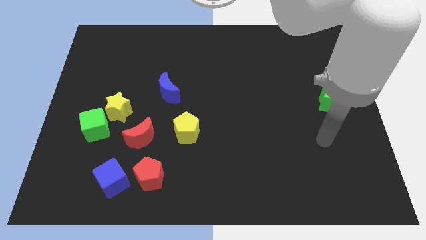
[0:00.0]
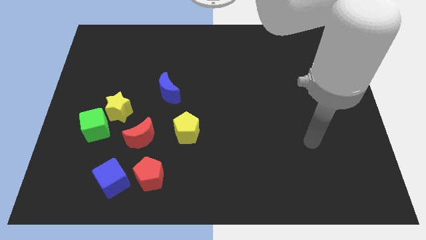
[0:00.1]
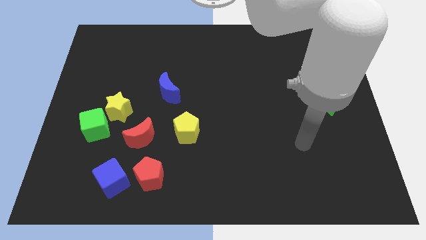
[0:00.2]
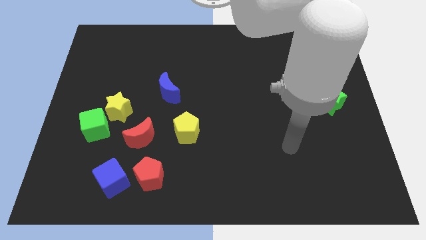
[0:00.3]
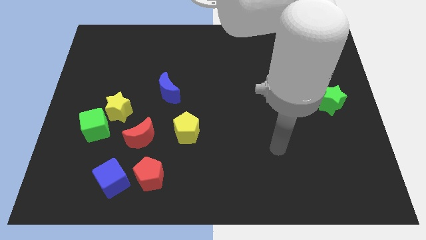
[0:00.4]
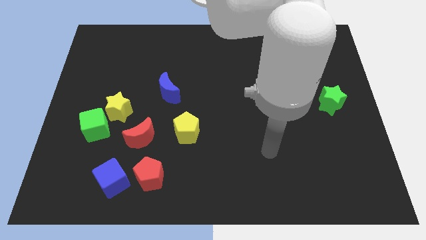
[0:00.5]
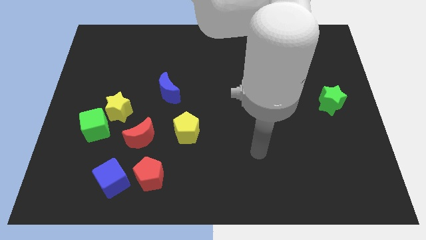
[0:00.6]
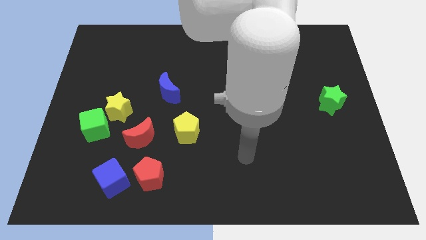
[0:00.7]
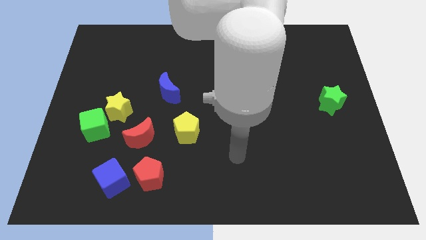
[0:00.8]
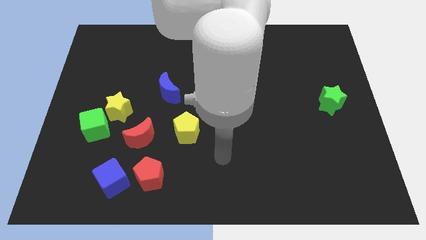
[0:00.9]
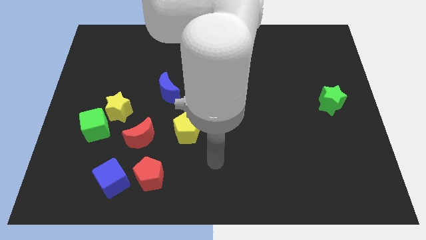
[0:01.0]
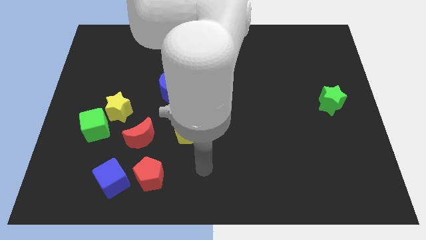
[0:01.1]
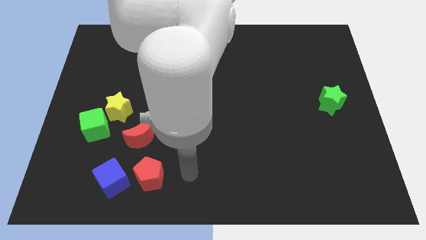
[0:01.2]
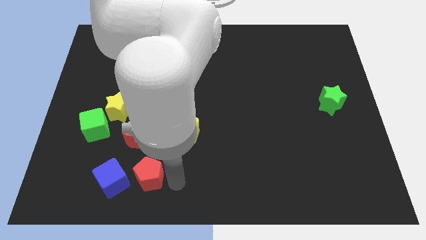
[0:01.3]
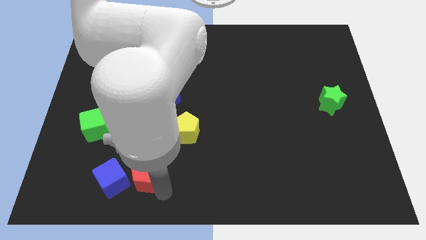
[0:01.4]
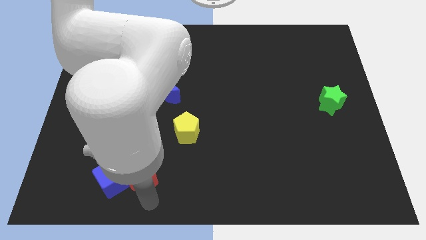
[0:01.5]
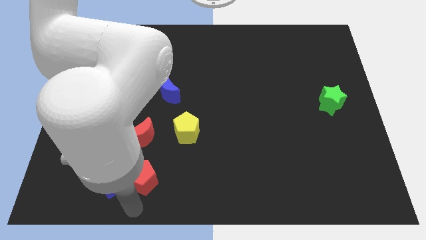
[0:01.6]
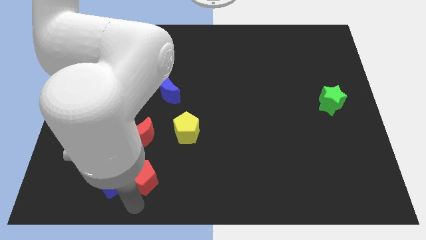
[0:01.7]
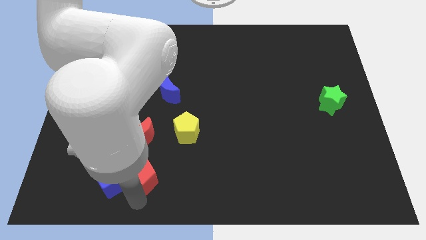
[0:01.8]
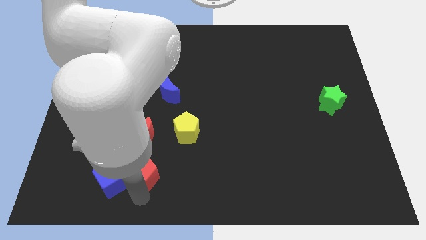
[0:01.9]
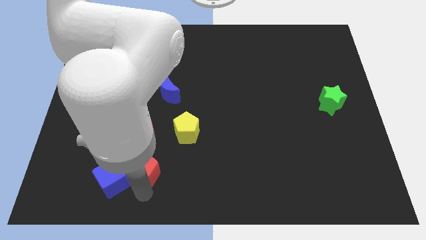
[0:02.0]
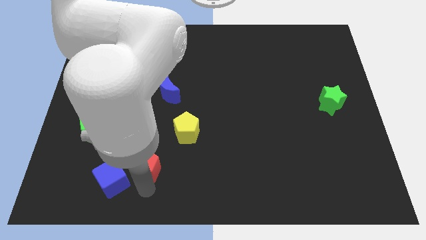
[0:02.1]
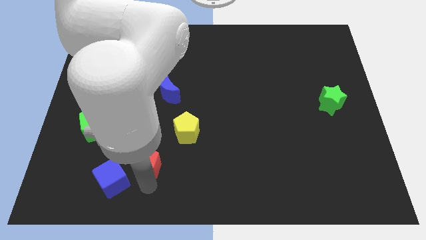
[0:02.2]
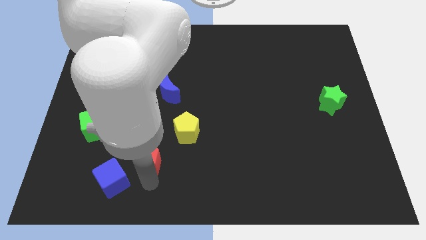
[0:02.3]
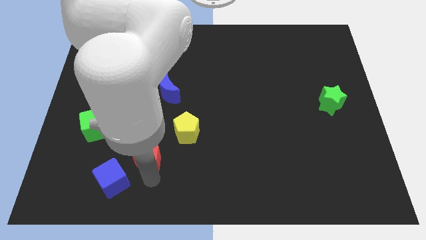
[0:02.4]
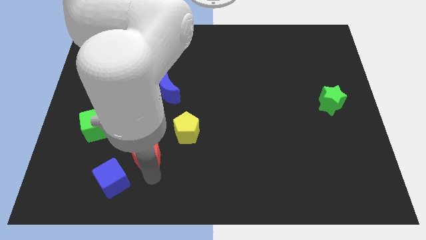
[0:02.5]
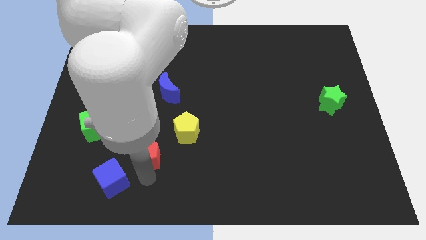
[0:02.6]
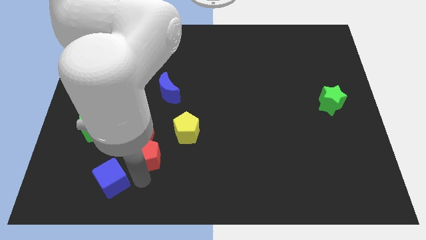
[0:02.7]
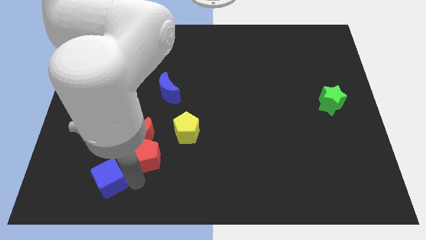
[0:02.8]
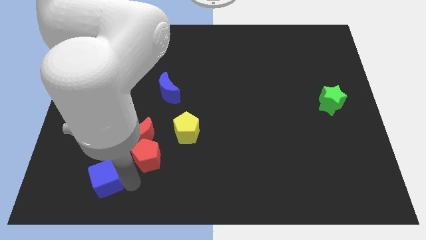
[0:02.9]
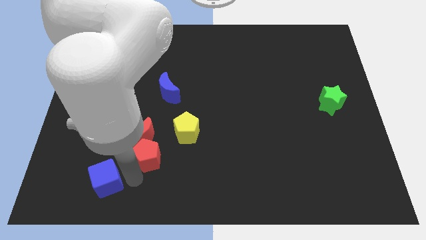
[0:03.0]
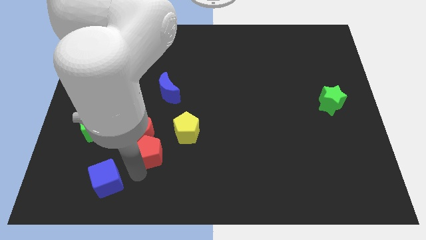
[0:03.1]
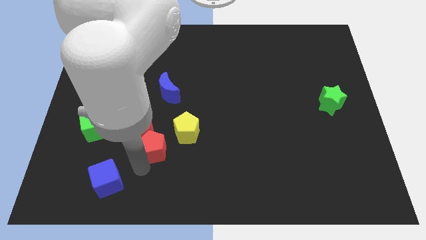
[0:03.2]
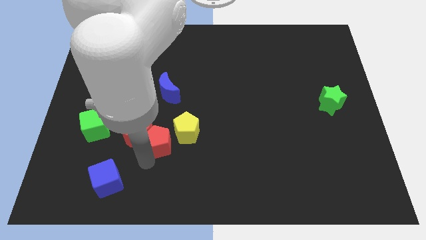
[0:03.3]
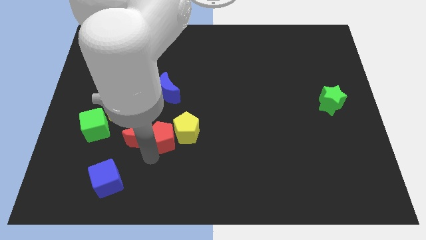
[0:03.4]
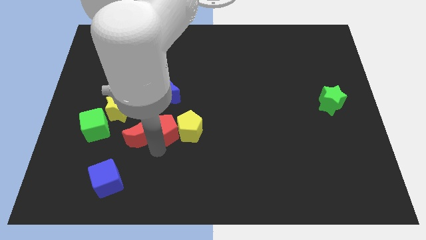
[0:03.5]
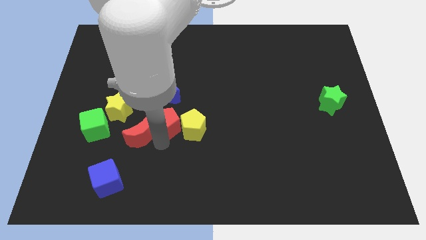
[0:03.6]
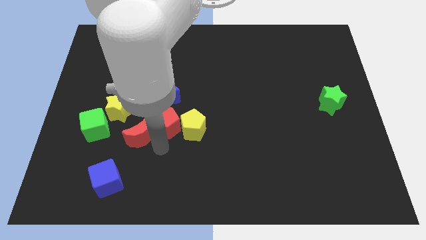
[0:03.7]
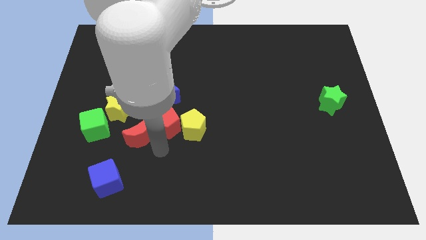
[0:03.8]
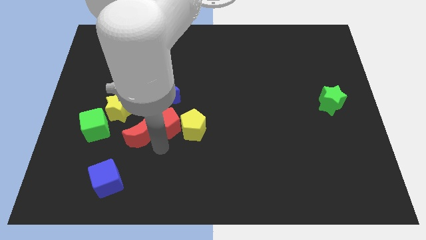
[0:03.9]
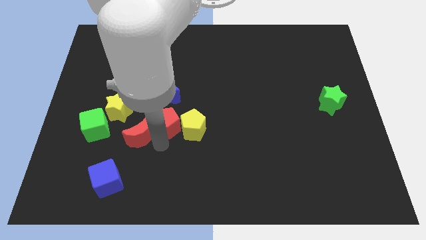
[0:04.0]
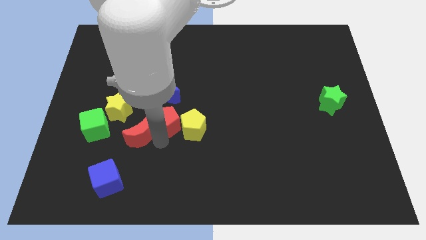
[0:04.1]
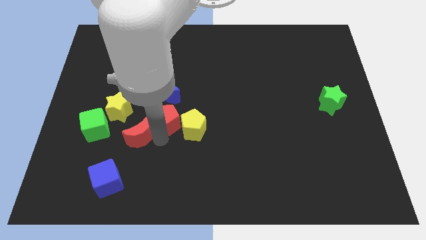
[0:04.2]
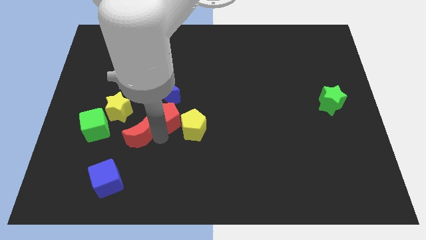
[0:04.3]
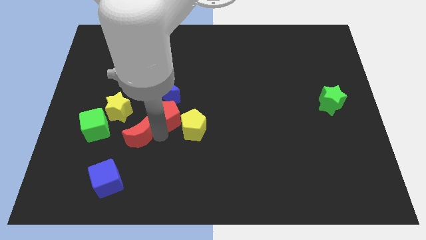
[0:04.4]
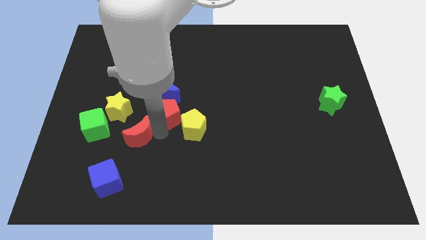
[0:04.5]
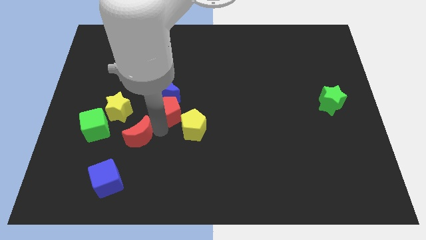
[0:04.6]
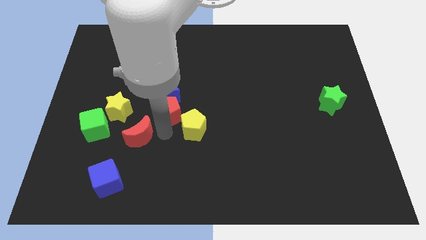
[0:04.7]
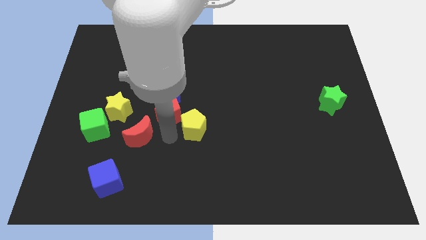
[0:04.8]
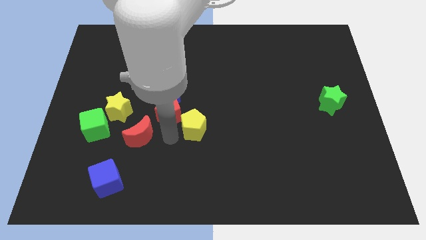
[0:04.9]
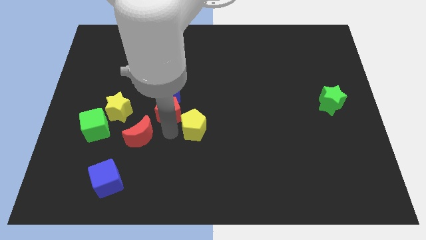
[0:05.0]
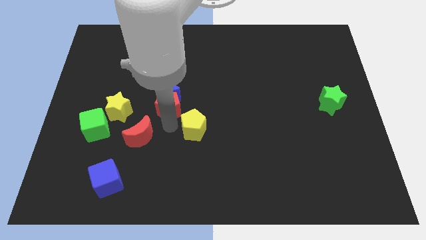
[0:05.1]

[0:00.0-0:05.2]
push the red pentagon close to the blue moon

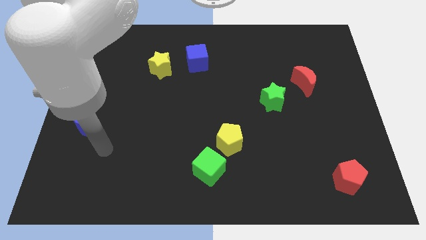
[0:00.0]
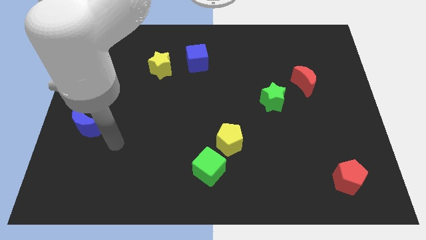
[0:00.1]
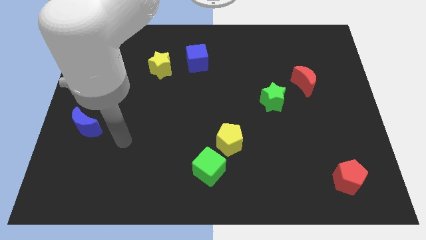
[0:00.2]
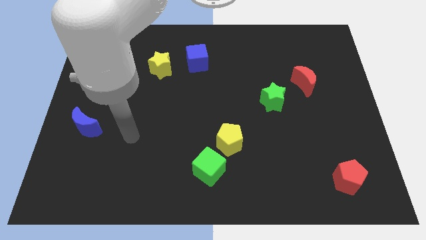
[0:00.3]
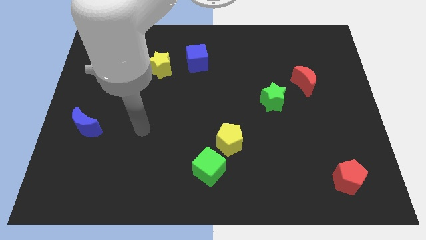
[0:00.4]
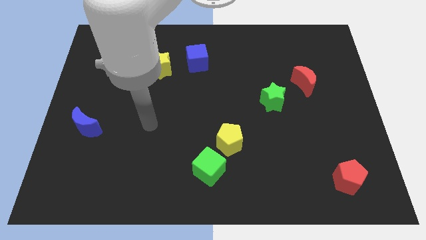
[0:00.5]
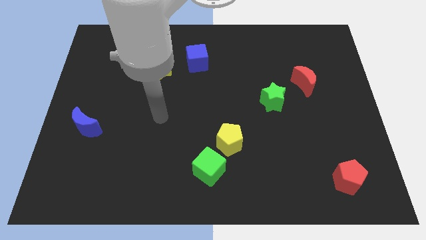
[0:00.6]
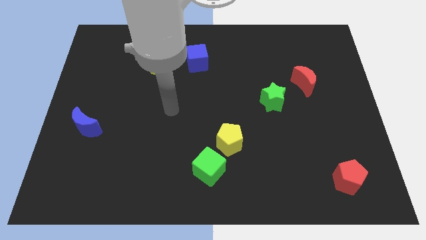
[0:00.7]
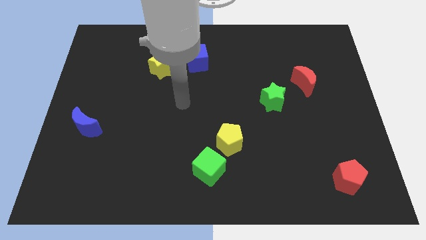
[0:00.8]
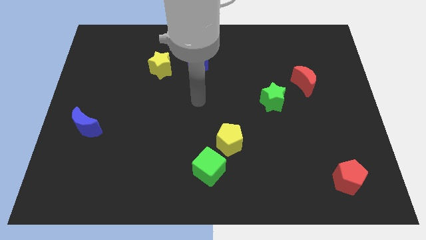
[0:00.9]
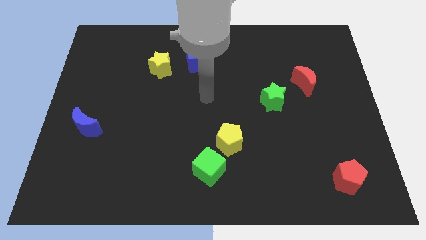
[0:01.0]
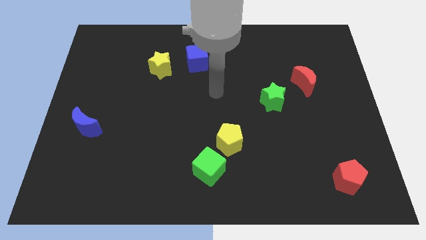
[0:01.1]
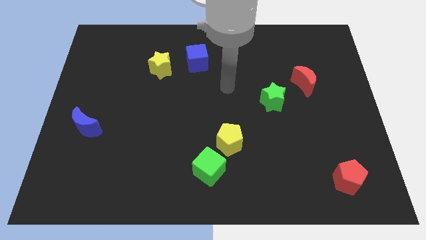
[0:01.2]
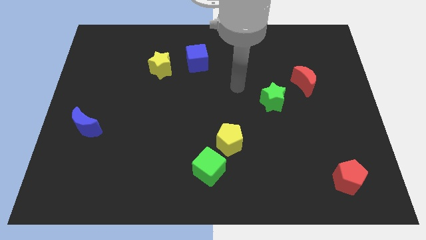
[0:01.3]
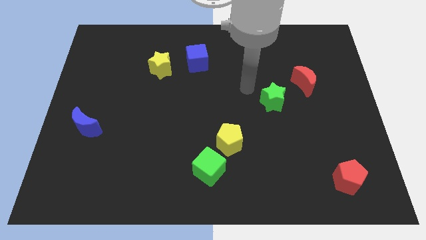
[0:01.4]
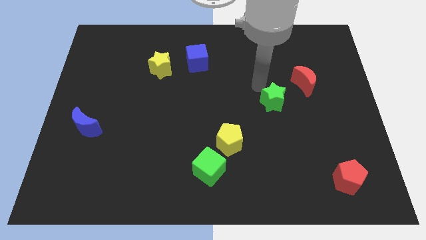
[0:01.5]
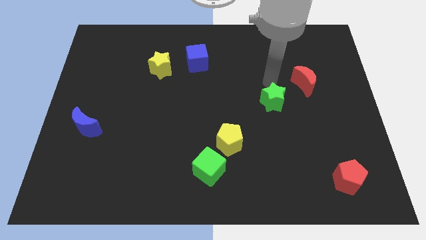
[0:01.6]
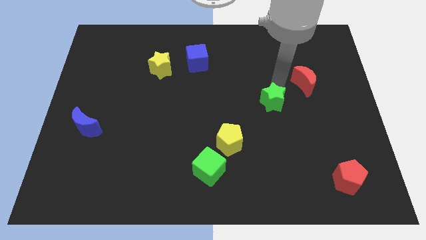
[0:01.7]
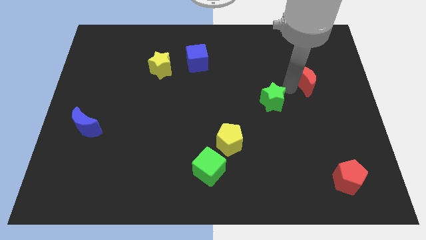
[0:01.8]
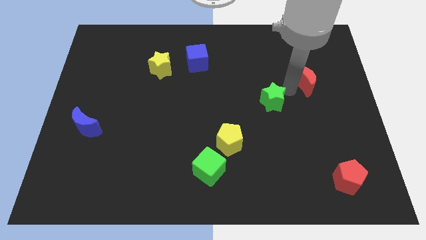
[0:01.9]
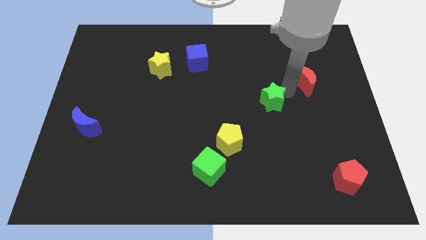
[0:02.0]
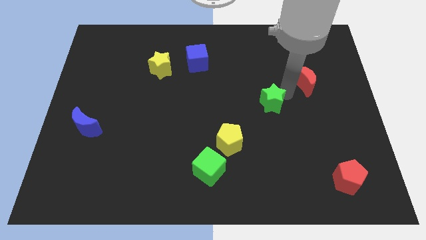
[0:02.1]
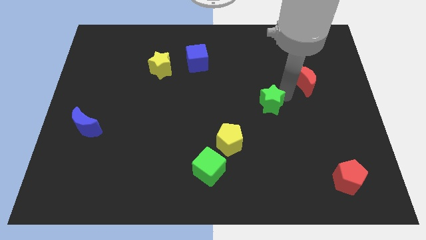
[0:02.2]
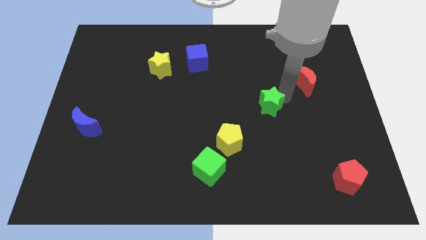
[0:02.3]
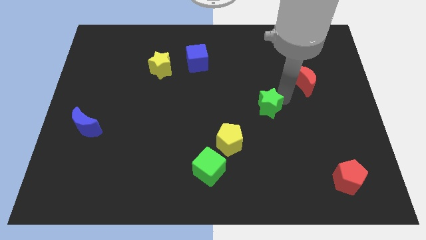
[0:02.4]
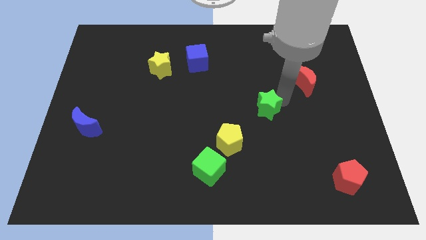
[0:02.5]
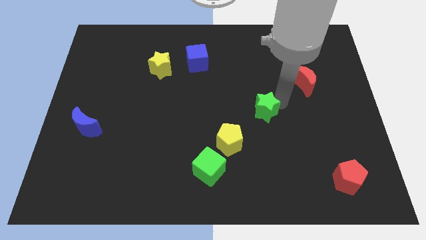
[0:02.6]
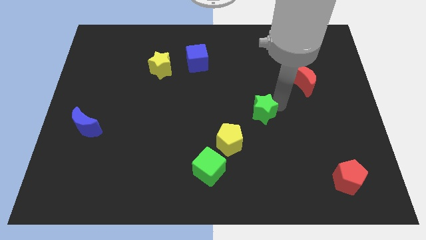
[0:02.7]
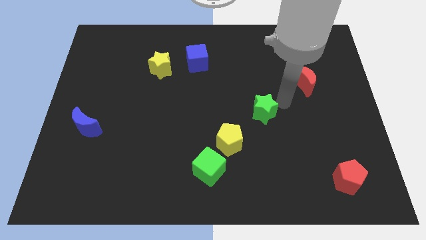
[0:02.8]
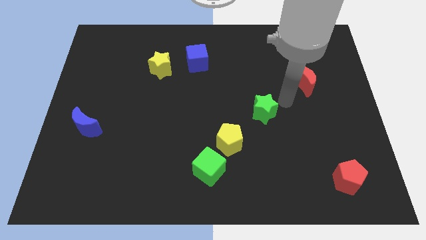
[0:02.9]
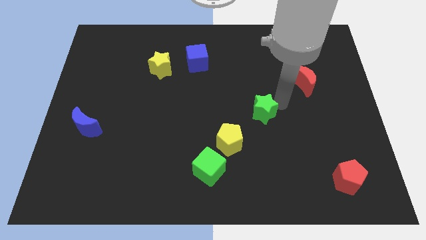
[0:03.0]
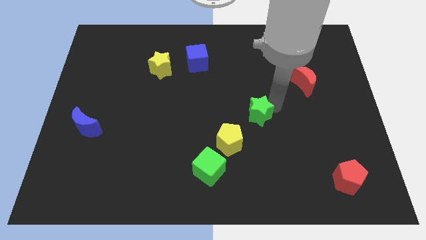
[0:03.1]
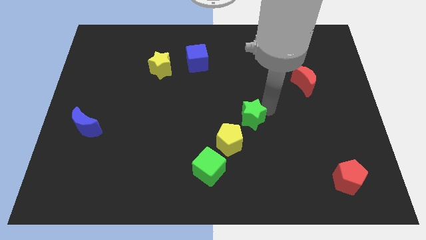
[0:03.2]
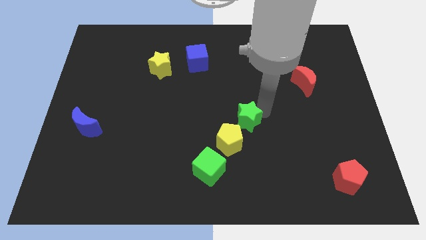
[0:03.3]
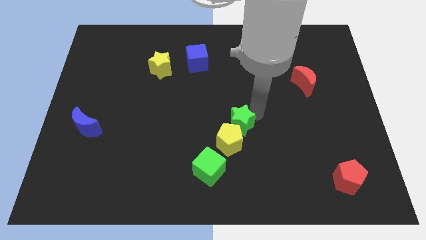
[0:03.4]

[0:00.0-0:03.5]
slide the green star towards the yellow pentagon
